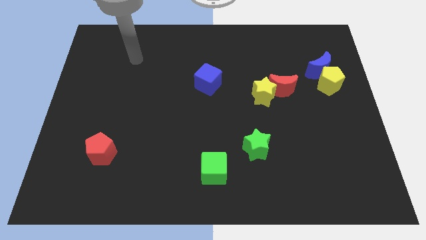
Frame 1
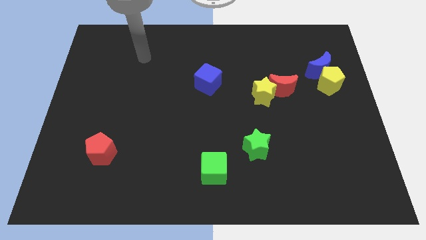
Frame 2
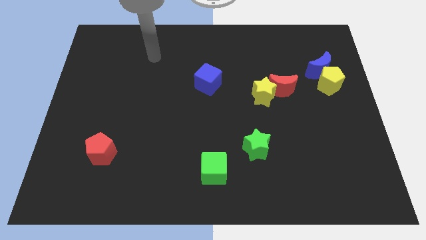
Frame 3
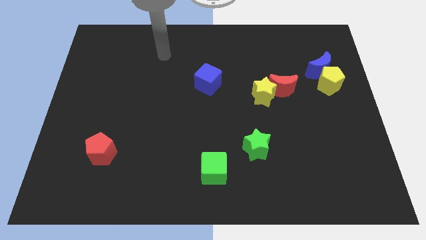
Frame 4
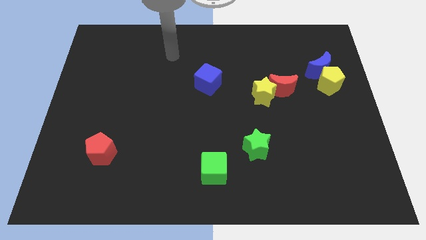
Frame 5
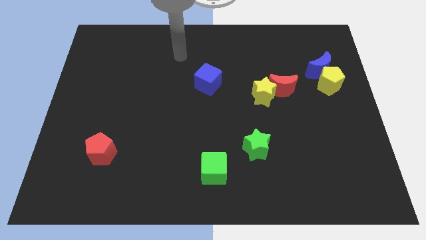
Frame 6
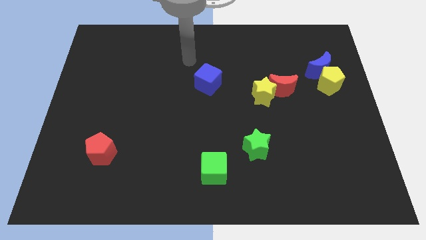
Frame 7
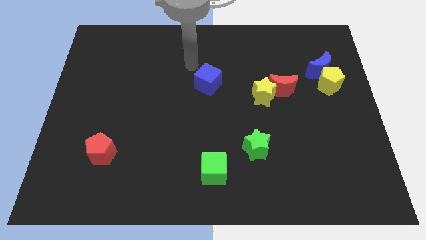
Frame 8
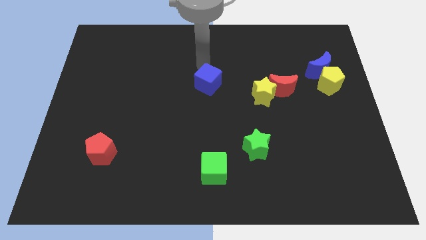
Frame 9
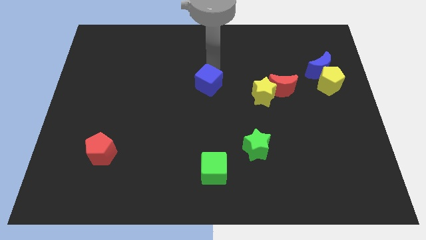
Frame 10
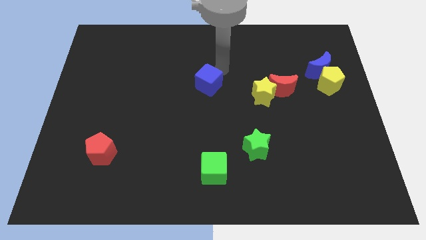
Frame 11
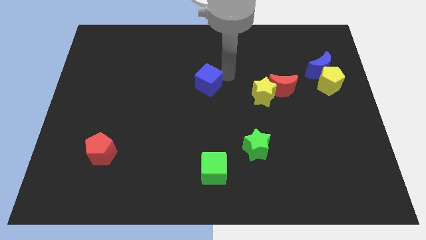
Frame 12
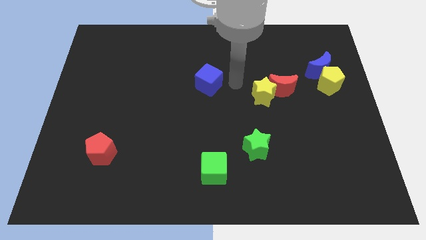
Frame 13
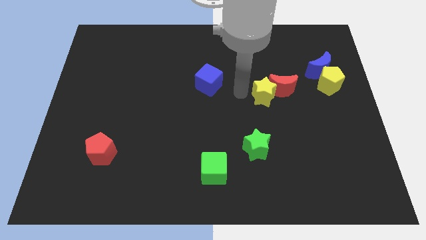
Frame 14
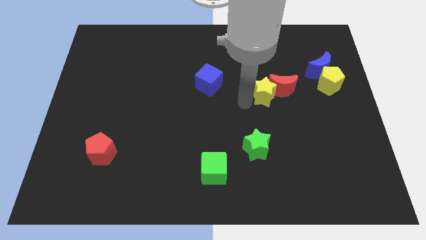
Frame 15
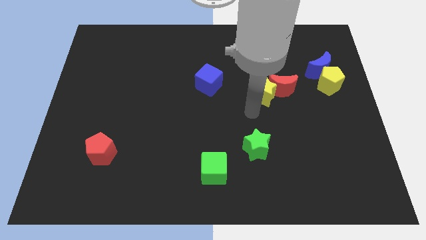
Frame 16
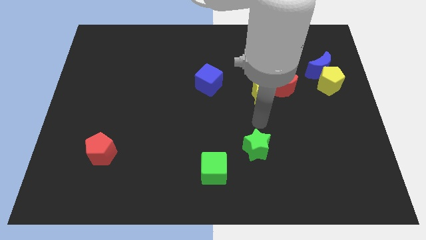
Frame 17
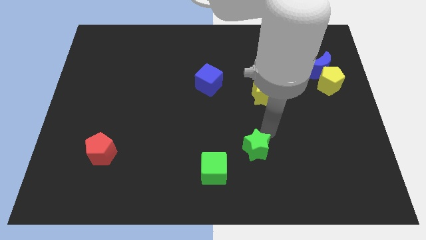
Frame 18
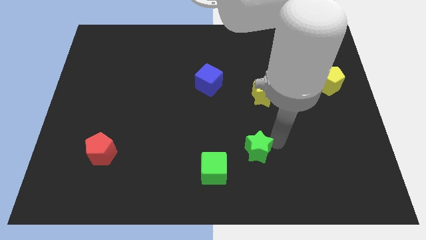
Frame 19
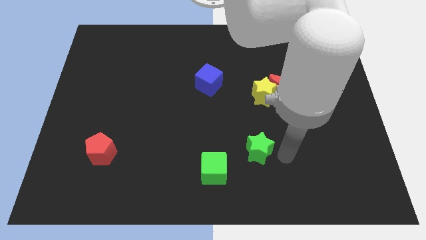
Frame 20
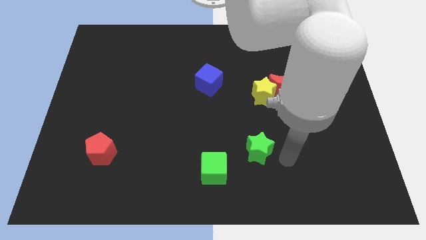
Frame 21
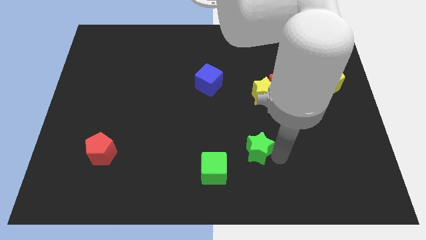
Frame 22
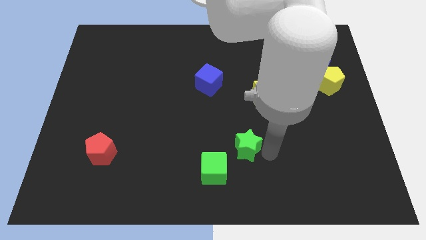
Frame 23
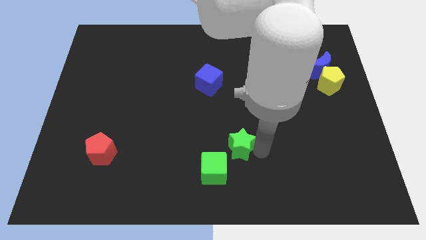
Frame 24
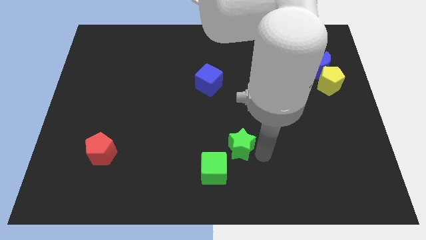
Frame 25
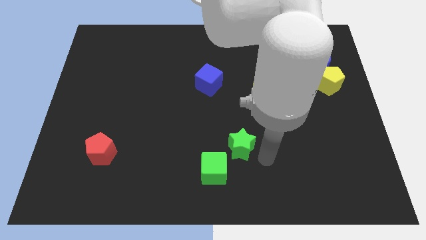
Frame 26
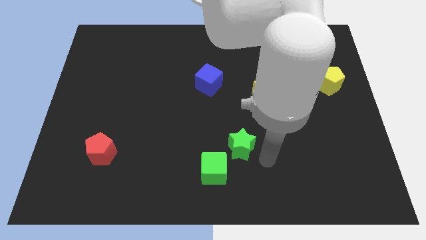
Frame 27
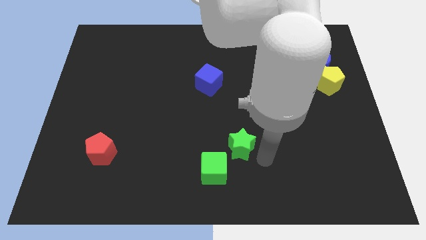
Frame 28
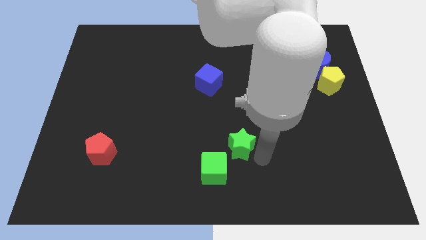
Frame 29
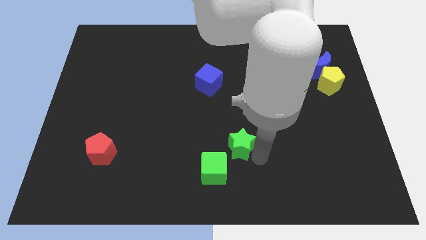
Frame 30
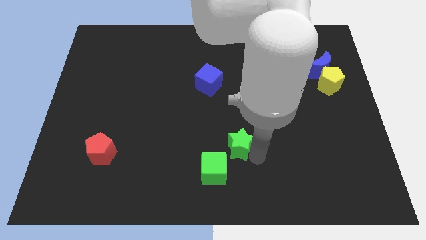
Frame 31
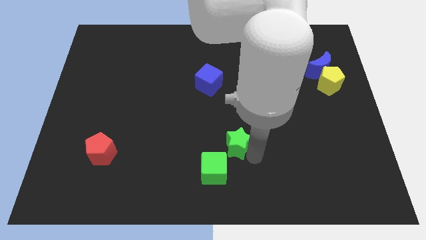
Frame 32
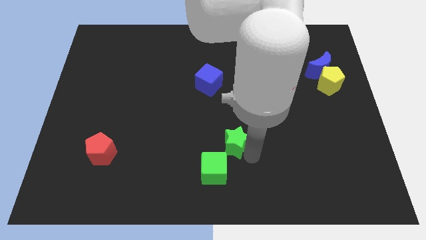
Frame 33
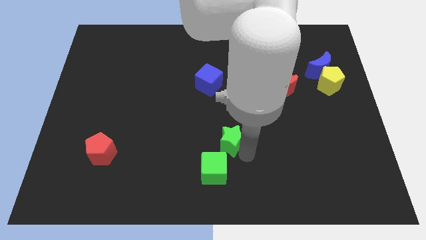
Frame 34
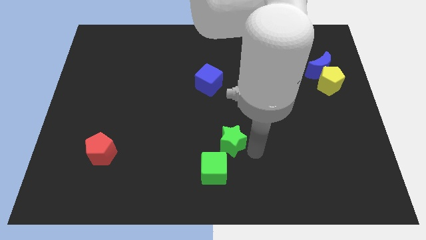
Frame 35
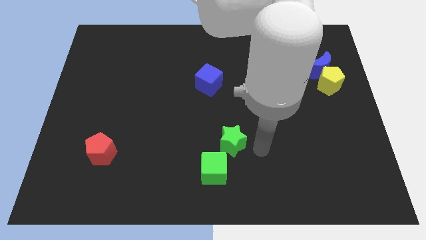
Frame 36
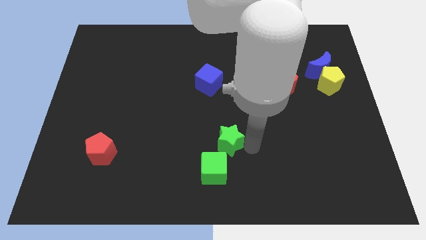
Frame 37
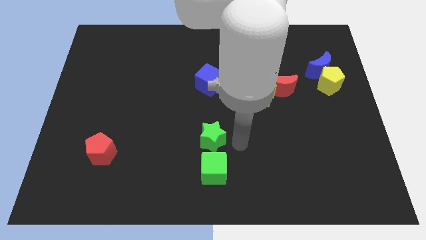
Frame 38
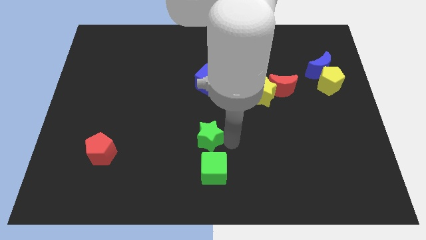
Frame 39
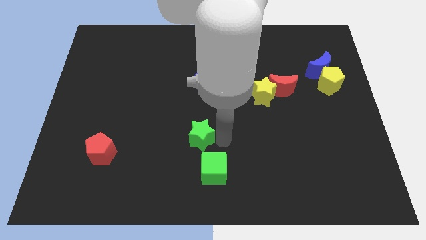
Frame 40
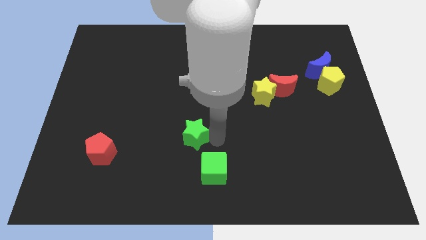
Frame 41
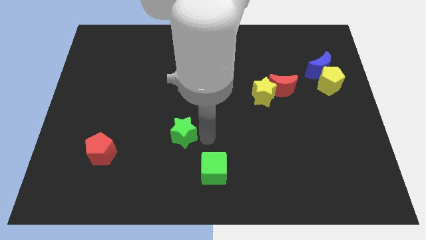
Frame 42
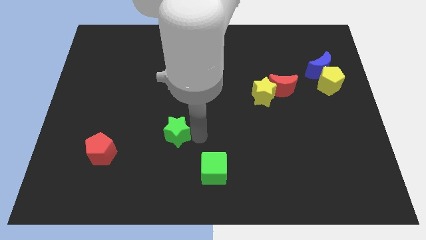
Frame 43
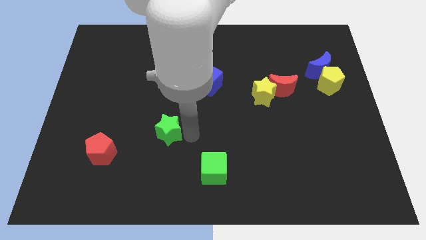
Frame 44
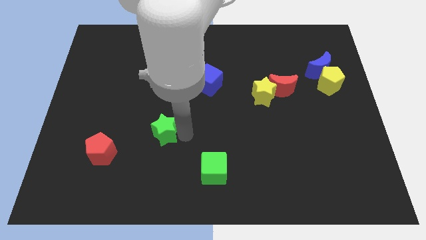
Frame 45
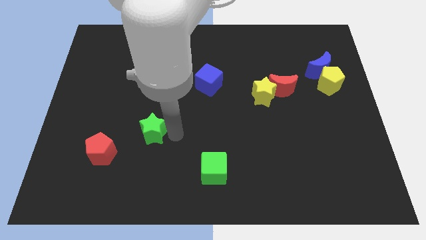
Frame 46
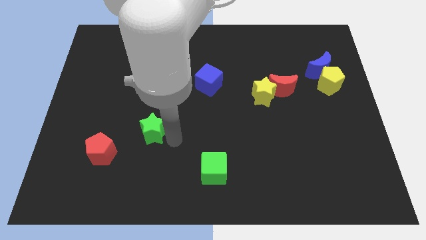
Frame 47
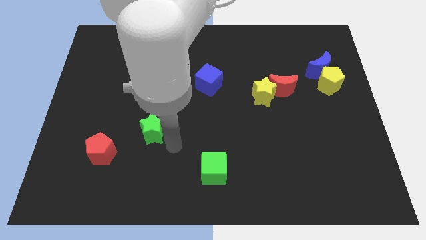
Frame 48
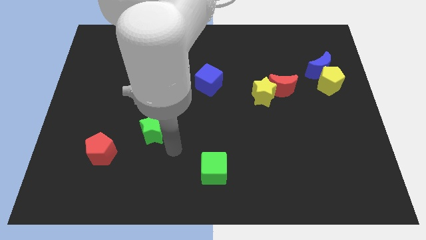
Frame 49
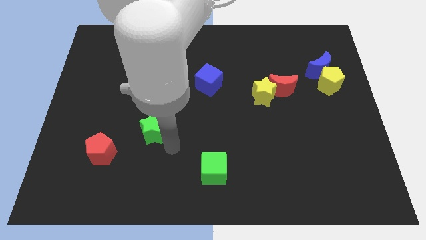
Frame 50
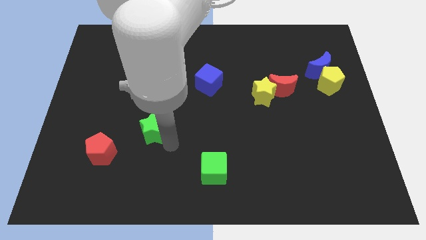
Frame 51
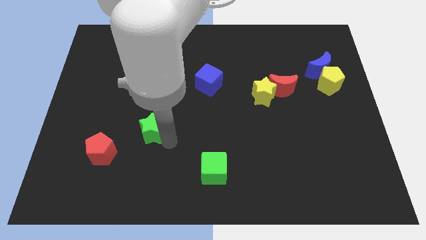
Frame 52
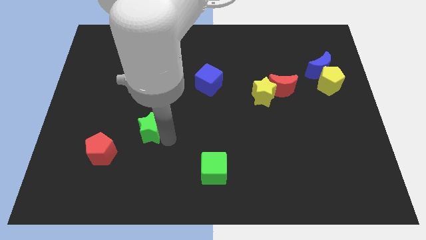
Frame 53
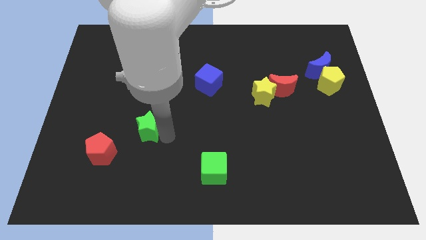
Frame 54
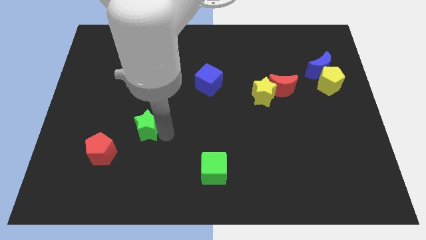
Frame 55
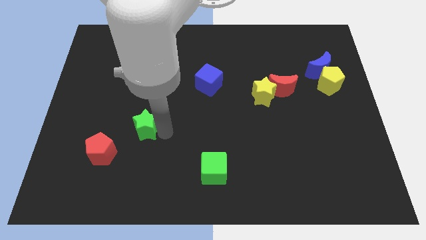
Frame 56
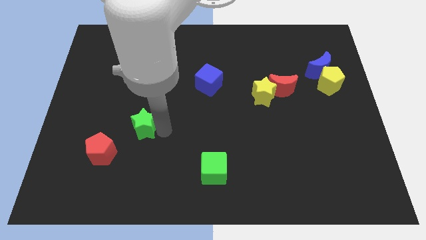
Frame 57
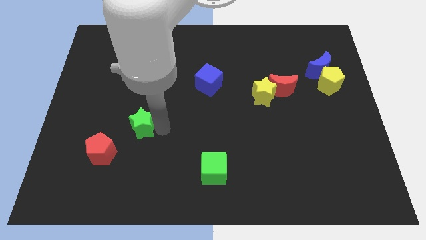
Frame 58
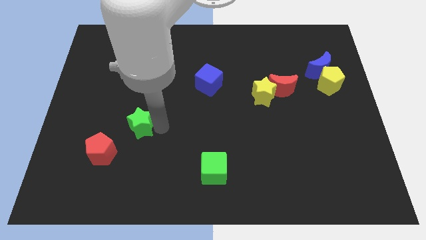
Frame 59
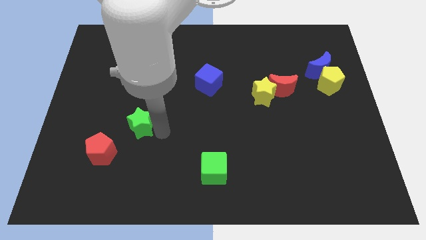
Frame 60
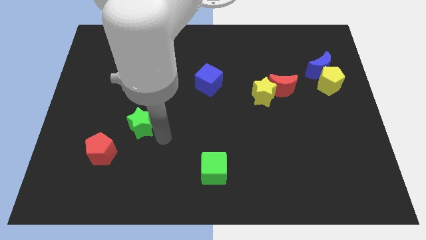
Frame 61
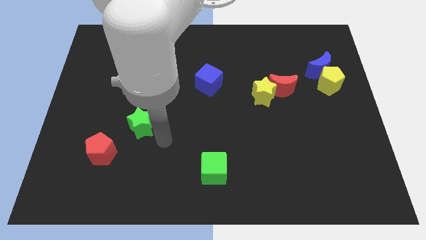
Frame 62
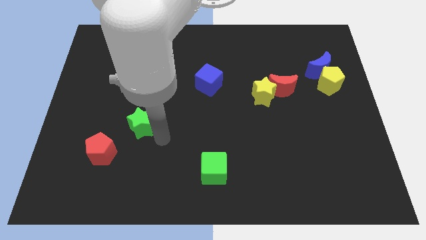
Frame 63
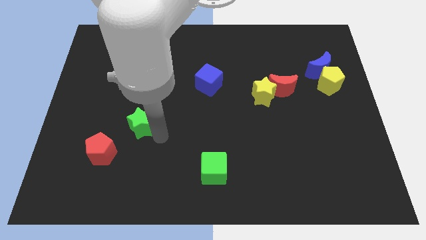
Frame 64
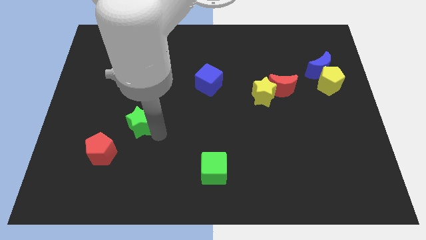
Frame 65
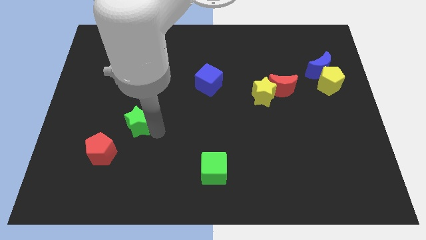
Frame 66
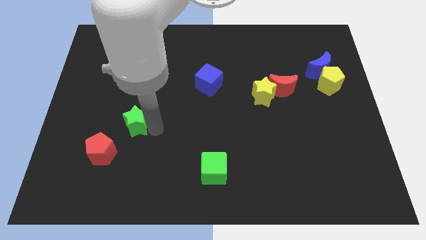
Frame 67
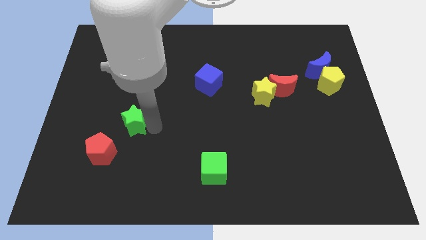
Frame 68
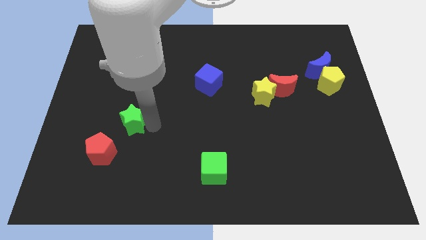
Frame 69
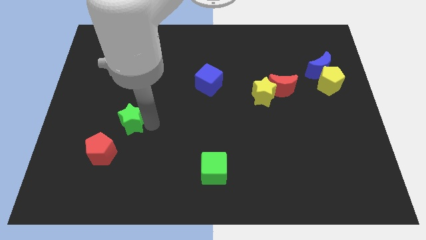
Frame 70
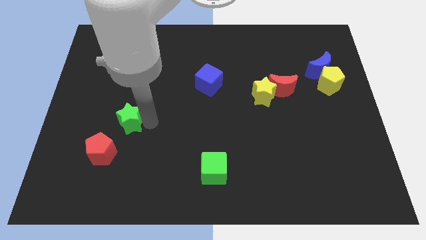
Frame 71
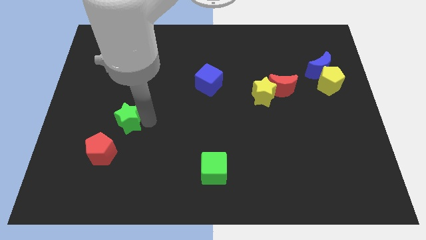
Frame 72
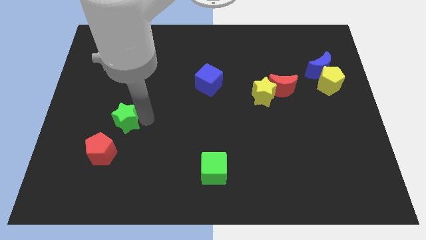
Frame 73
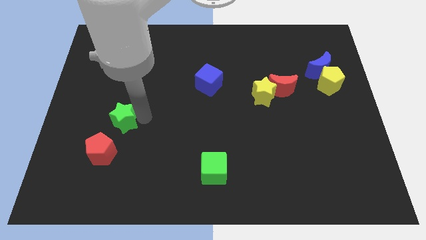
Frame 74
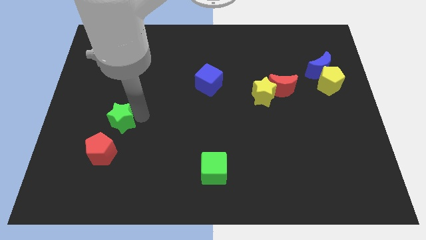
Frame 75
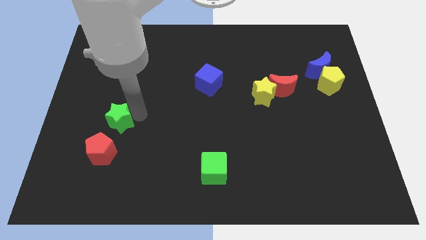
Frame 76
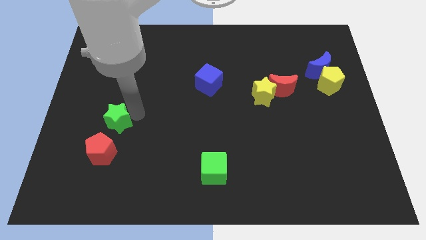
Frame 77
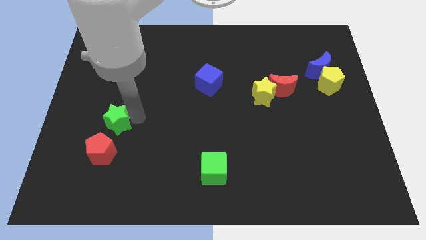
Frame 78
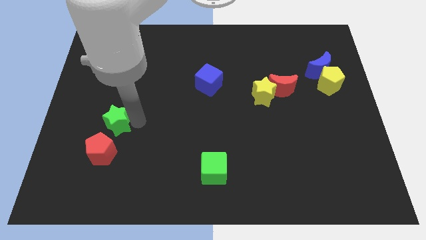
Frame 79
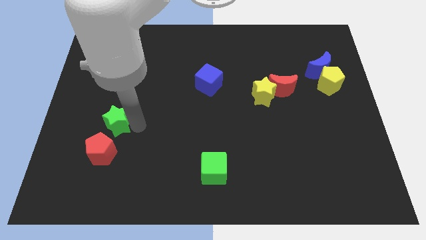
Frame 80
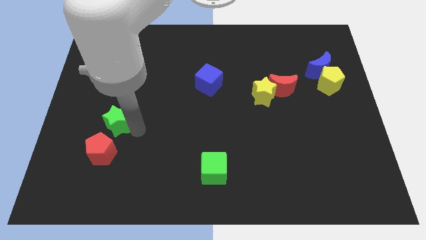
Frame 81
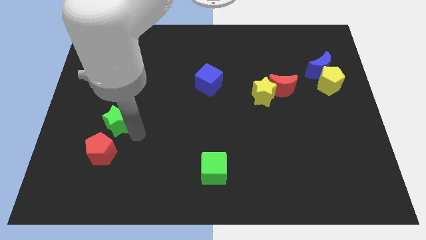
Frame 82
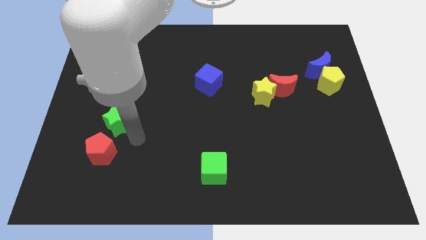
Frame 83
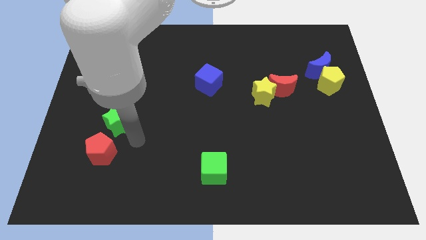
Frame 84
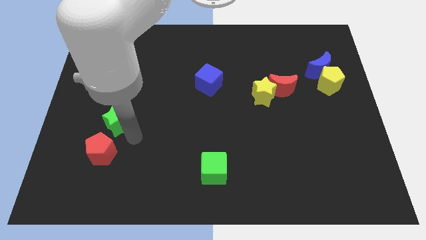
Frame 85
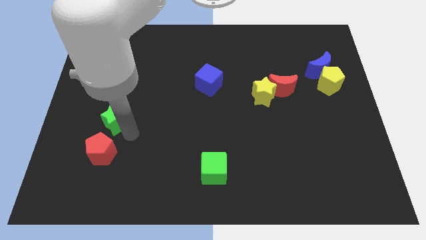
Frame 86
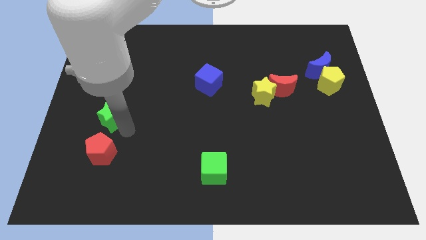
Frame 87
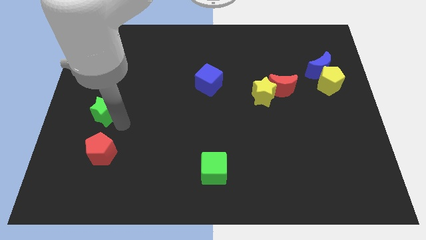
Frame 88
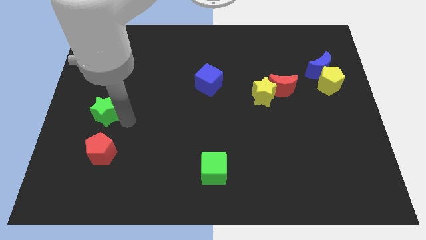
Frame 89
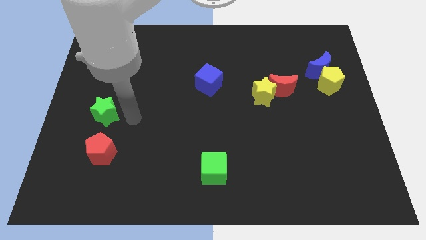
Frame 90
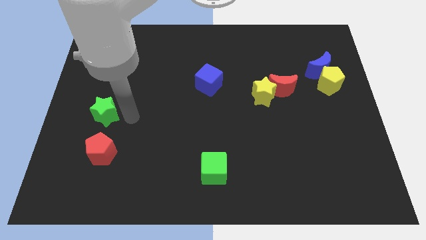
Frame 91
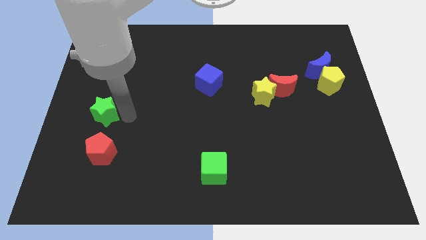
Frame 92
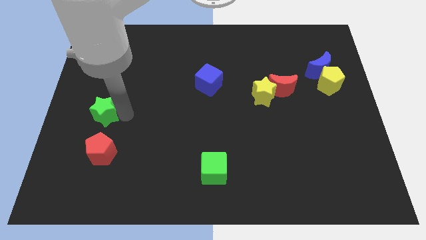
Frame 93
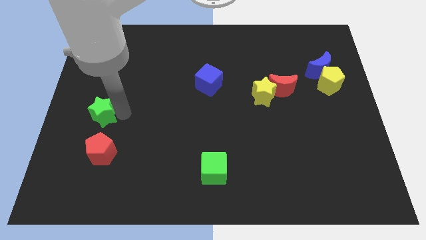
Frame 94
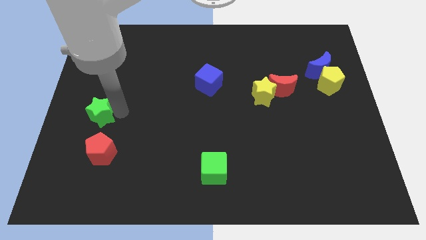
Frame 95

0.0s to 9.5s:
move the green star to the left side
